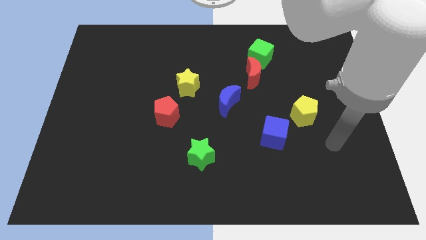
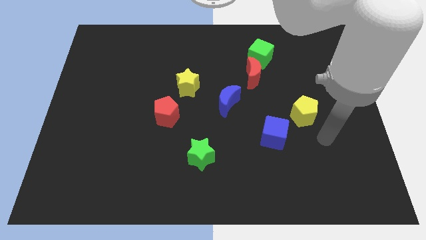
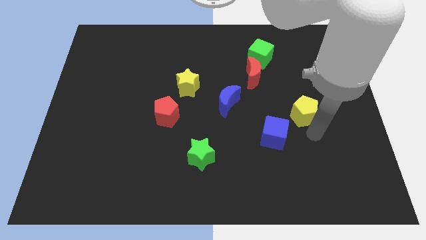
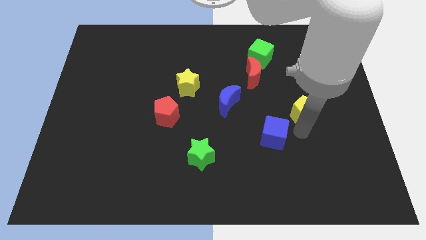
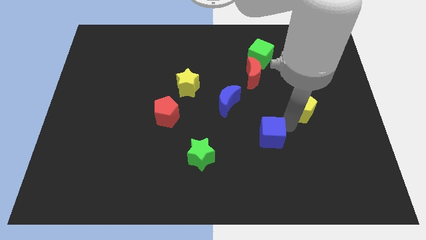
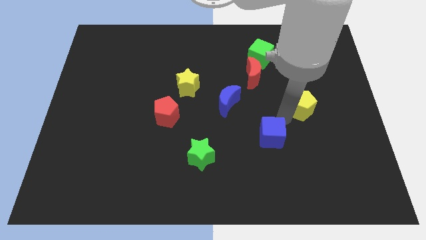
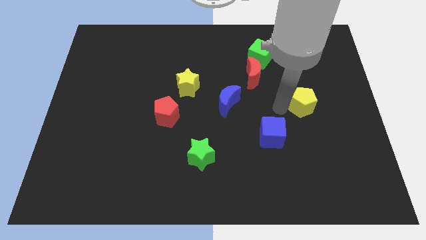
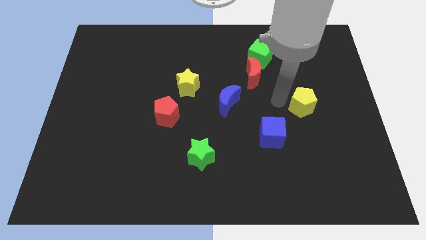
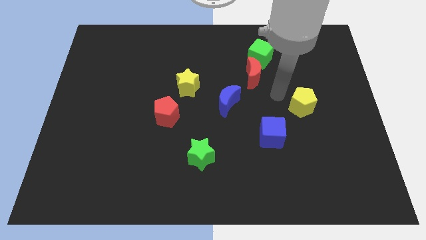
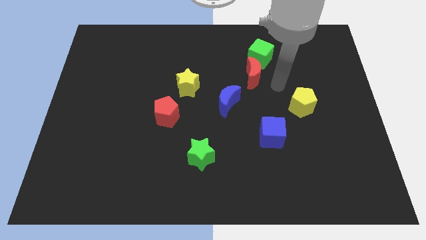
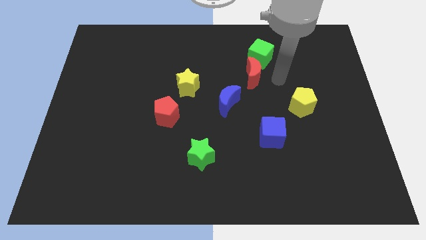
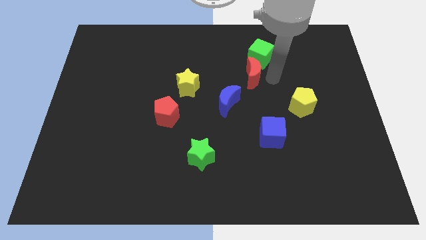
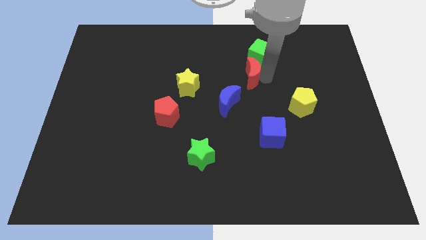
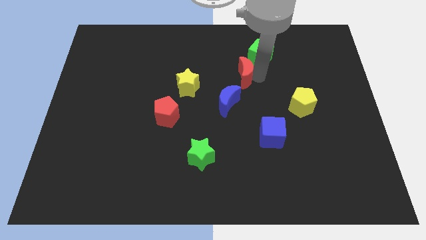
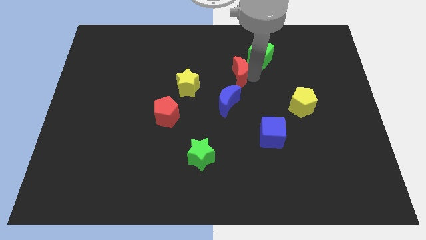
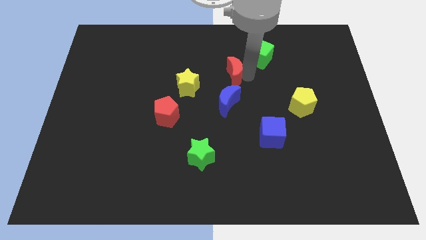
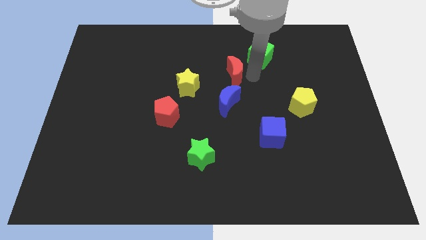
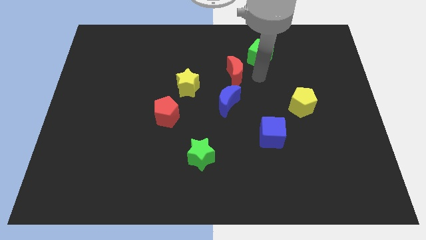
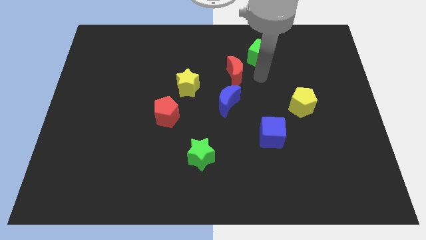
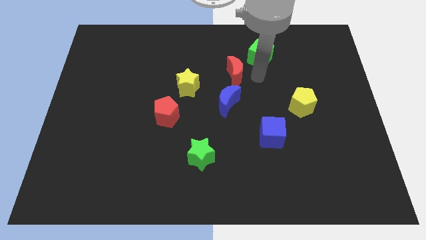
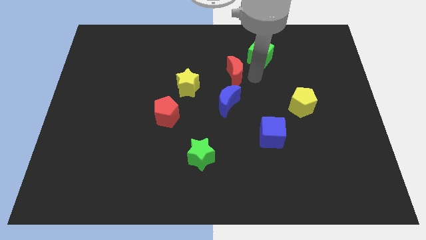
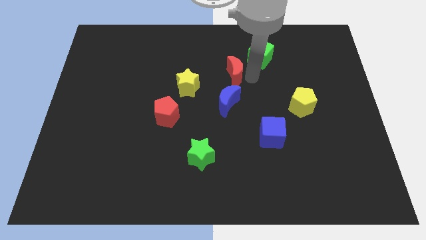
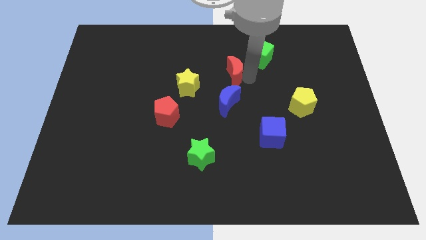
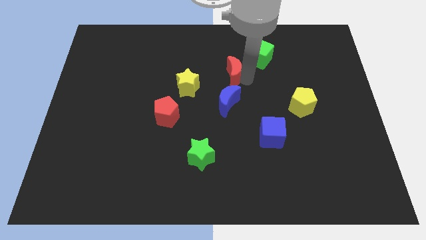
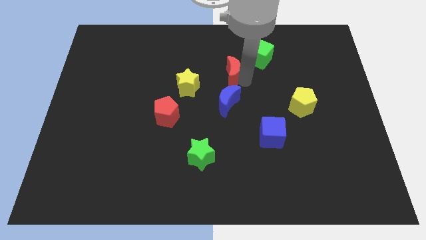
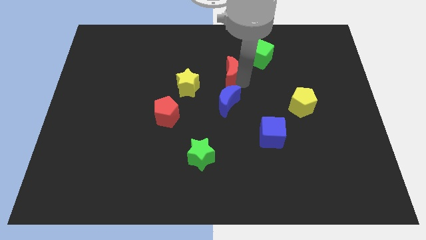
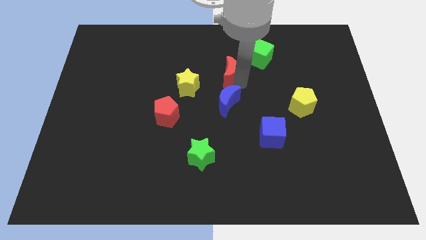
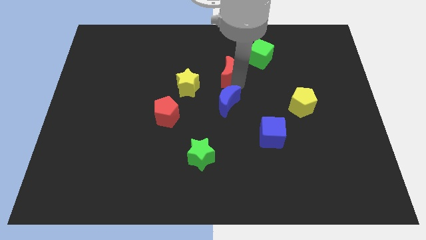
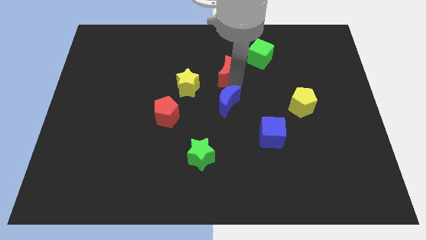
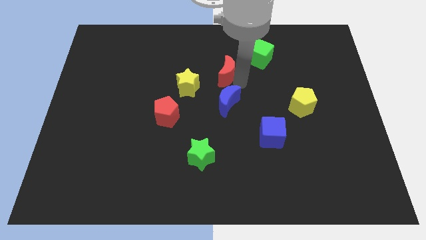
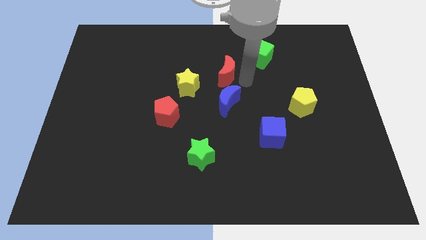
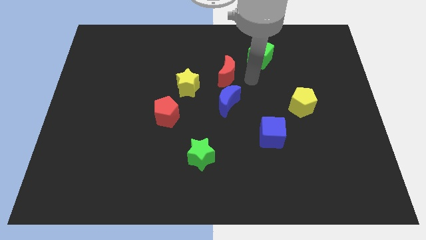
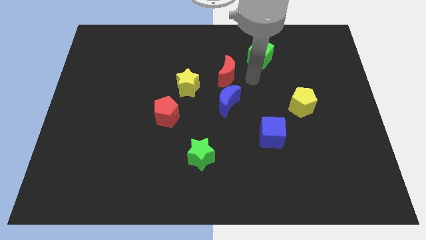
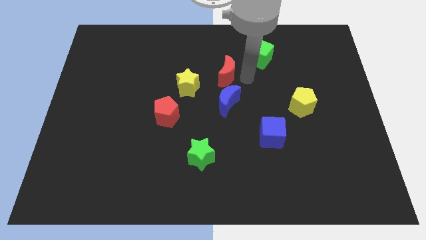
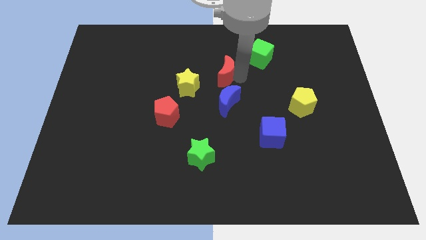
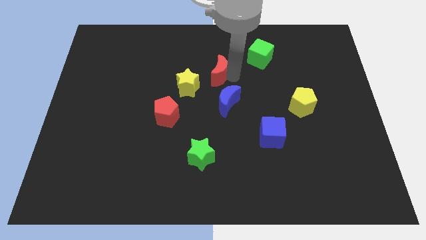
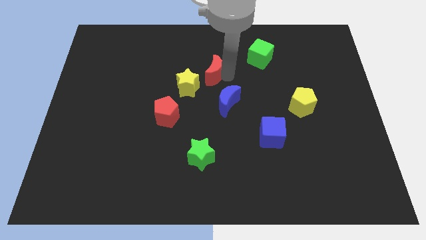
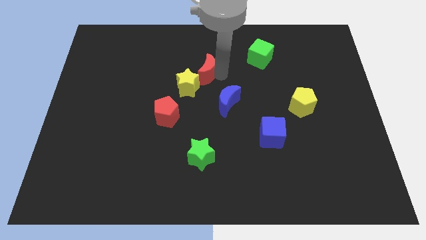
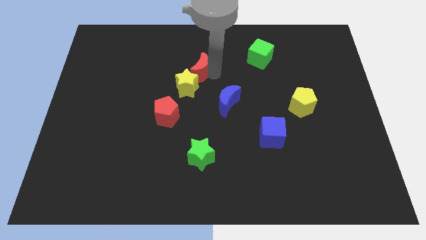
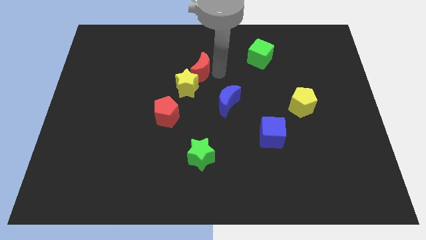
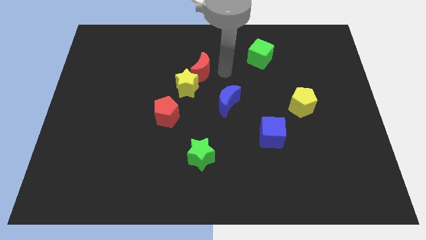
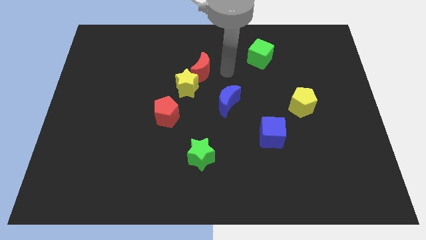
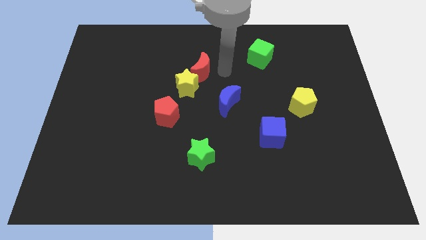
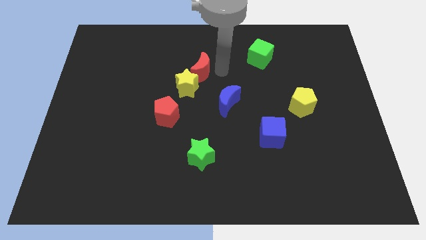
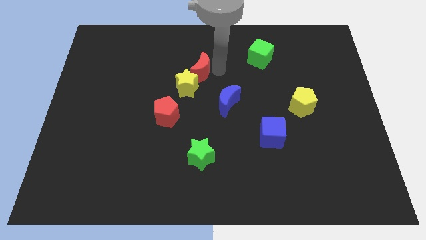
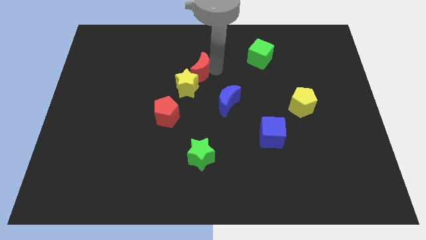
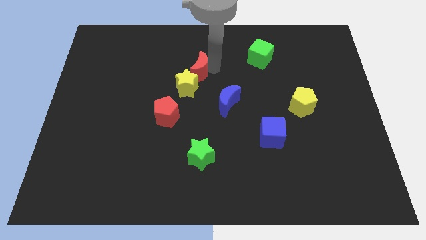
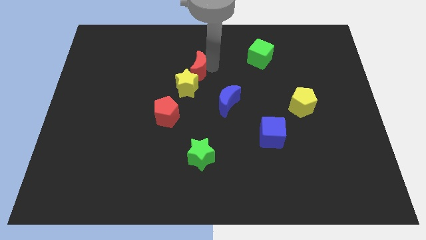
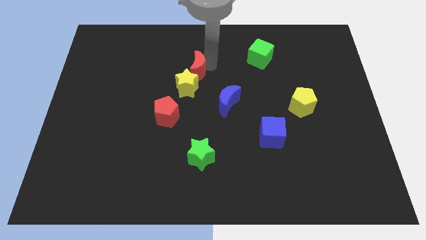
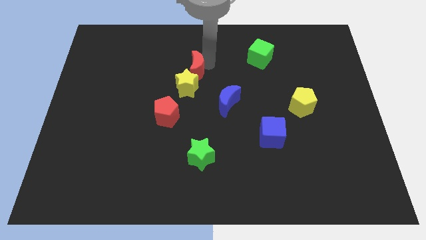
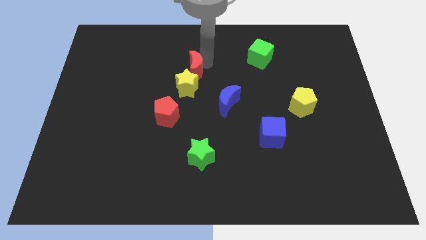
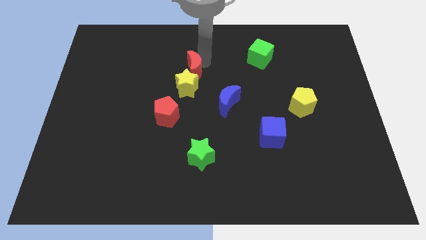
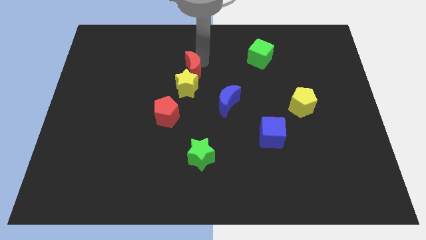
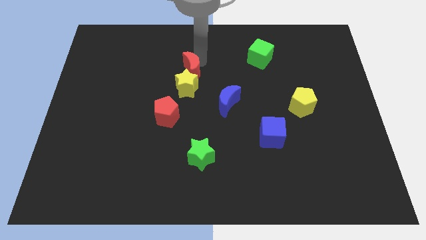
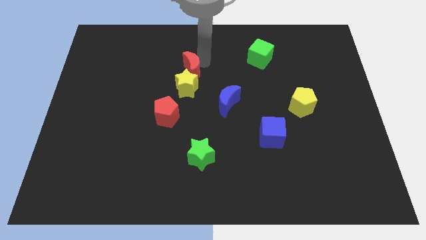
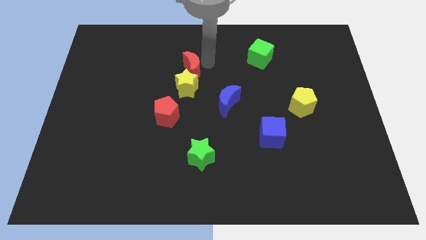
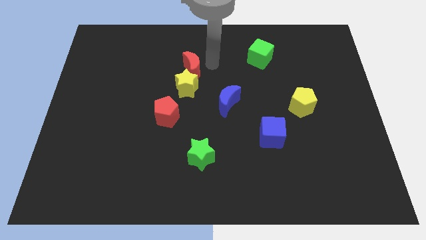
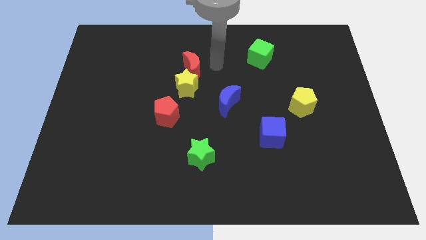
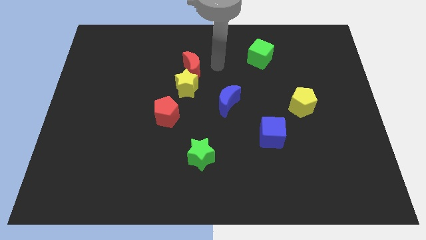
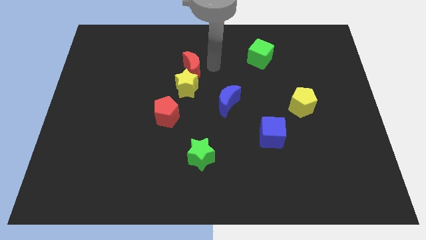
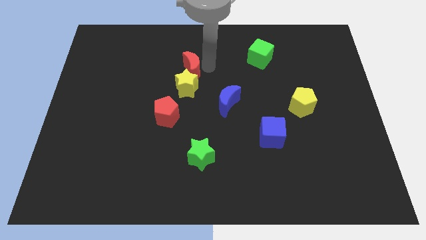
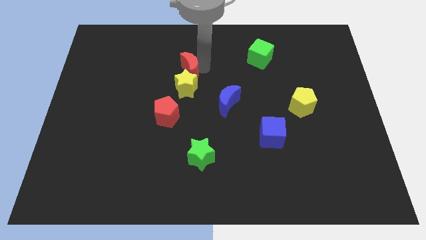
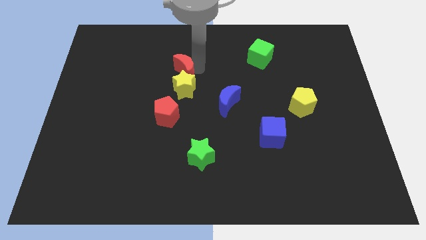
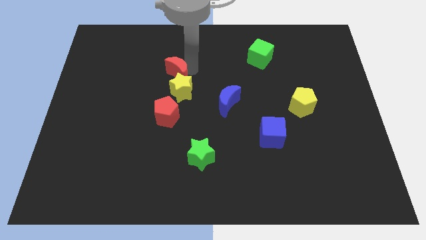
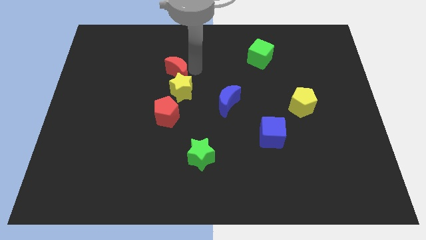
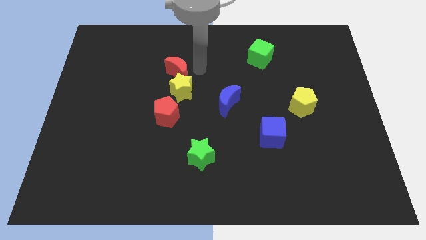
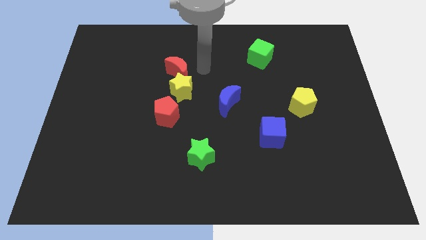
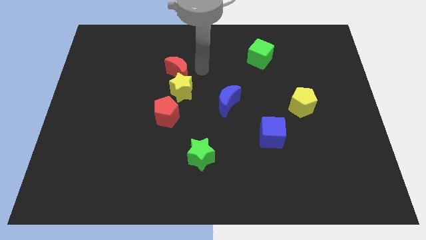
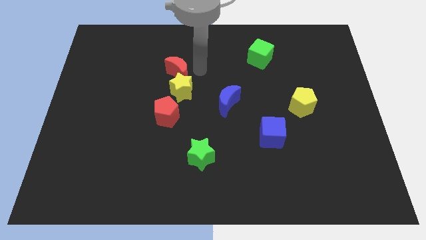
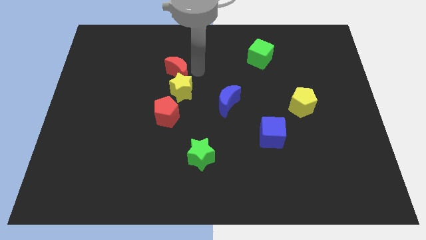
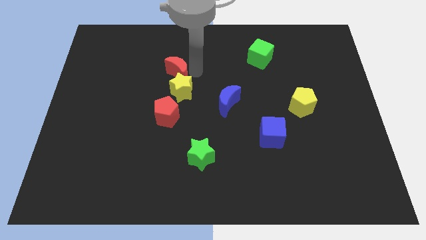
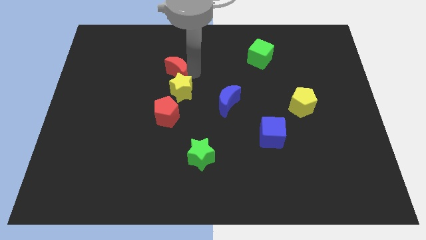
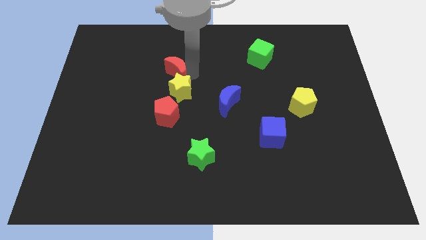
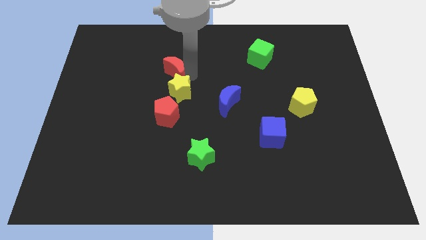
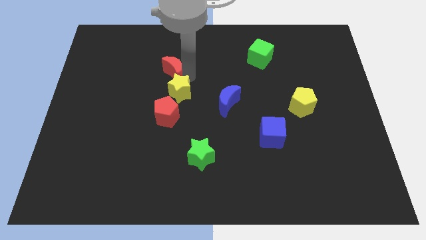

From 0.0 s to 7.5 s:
move the red moon left
